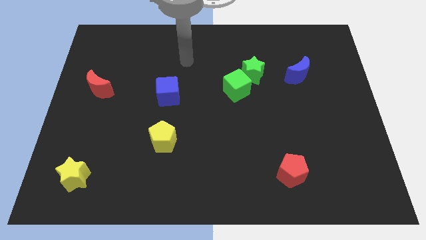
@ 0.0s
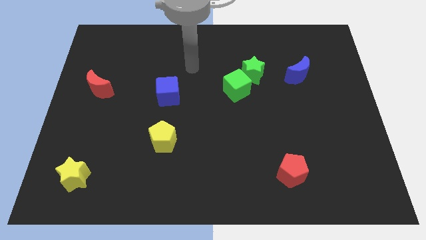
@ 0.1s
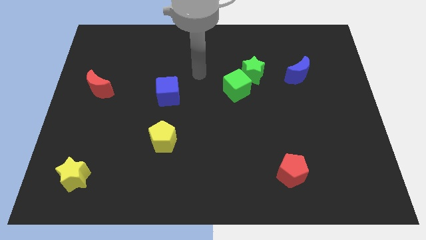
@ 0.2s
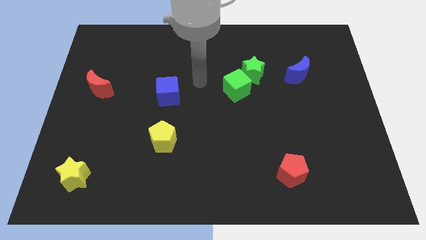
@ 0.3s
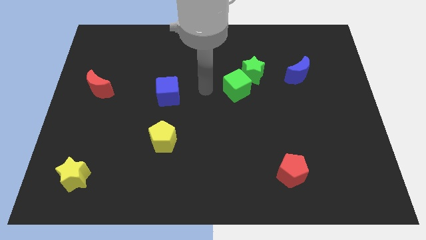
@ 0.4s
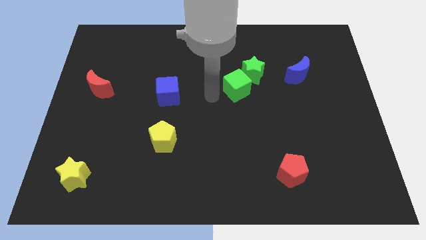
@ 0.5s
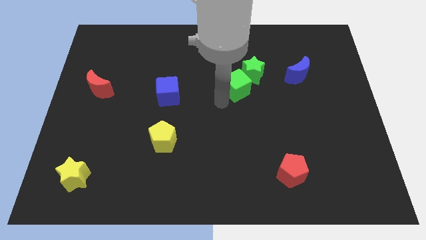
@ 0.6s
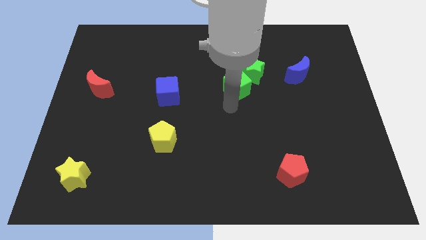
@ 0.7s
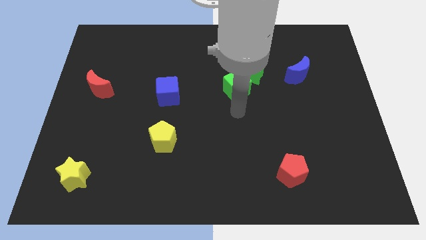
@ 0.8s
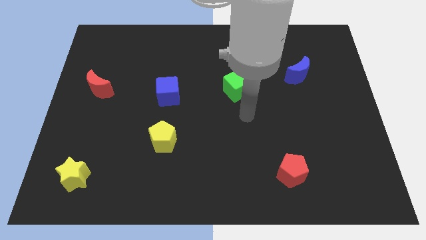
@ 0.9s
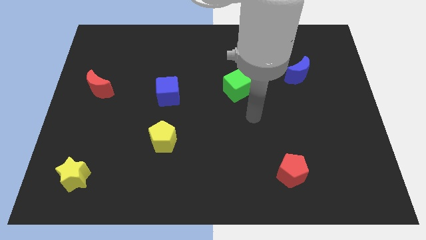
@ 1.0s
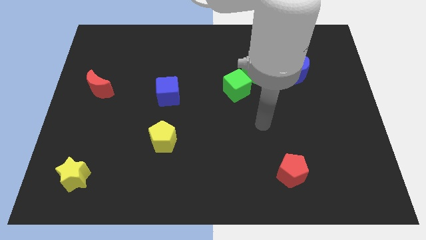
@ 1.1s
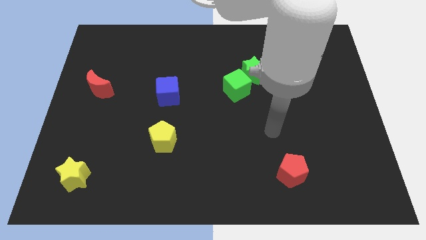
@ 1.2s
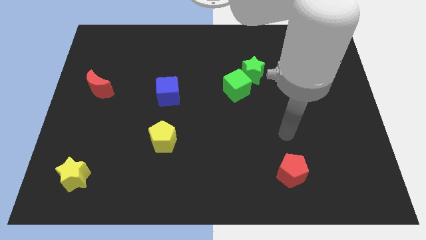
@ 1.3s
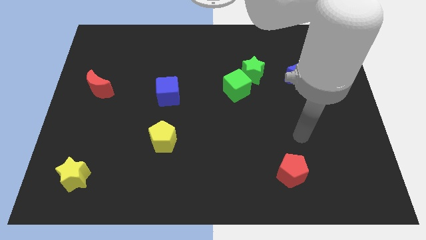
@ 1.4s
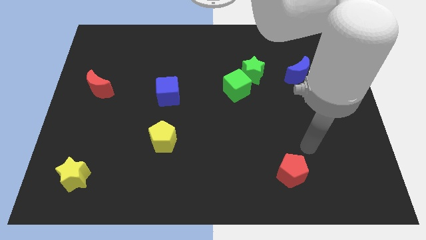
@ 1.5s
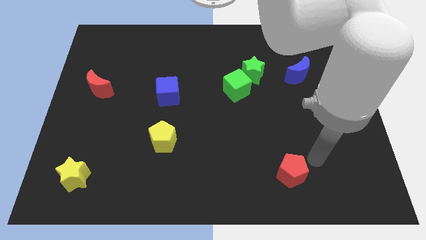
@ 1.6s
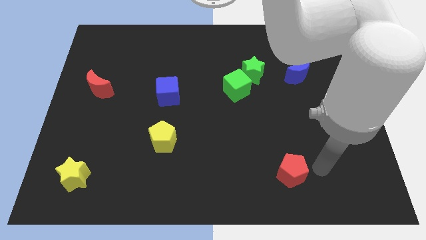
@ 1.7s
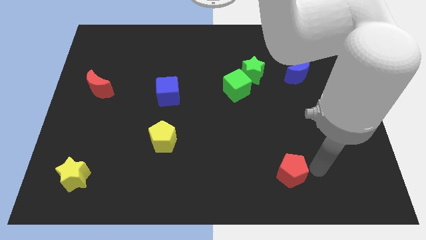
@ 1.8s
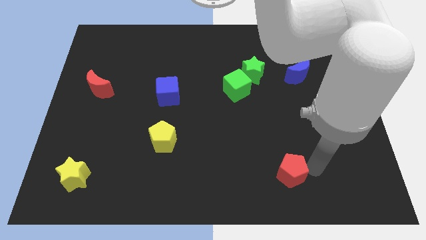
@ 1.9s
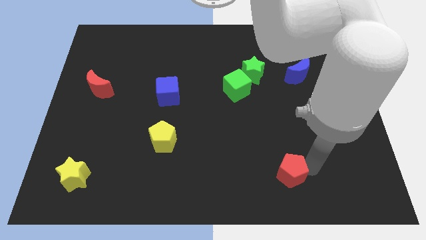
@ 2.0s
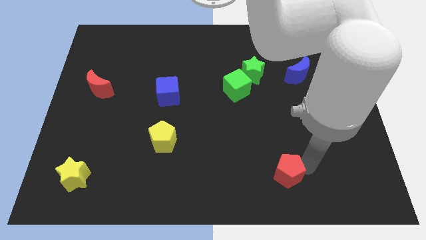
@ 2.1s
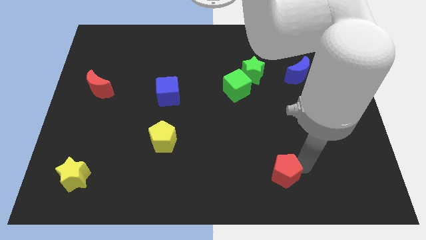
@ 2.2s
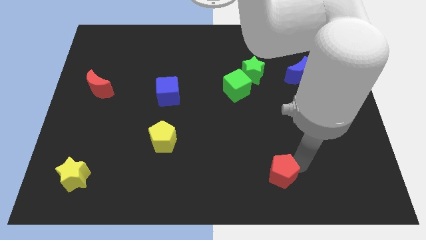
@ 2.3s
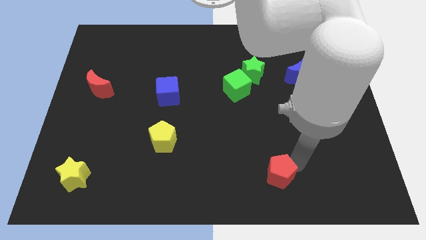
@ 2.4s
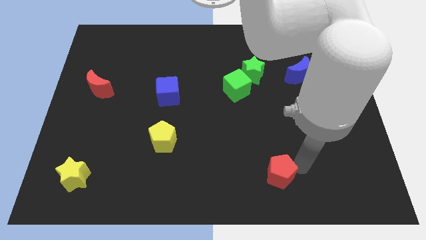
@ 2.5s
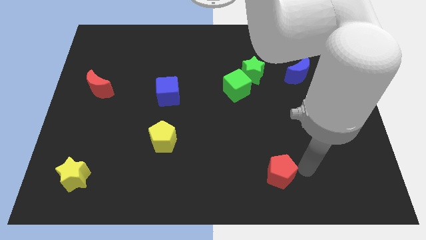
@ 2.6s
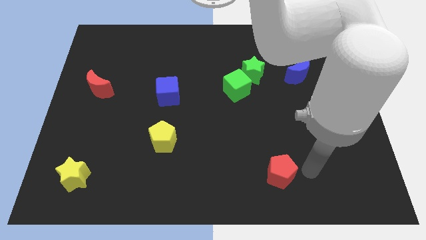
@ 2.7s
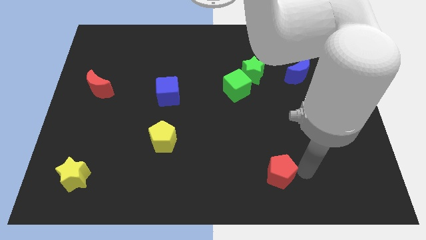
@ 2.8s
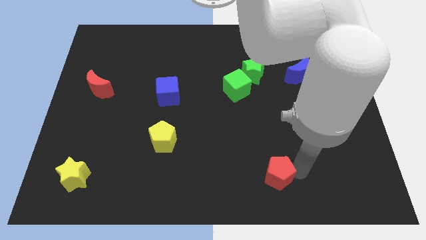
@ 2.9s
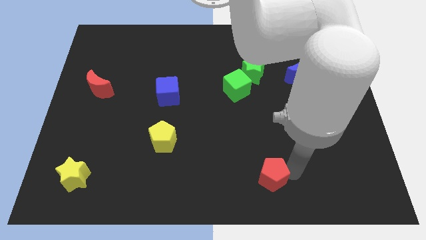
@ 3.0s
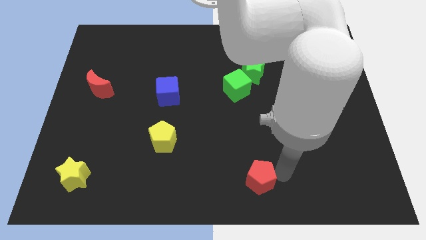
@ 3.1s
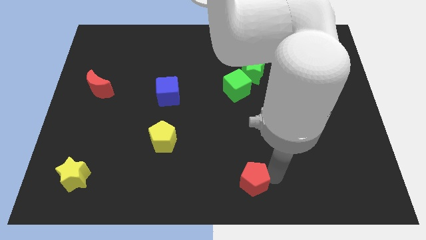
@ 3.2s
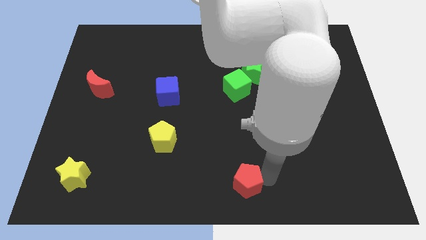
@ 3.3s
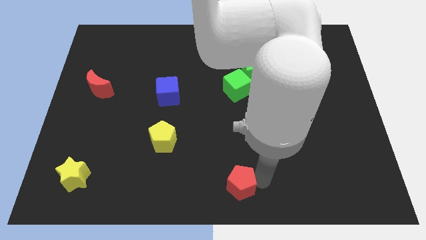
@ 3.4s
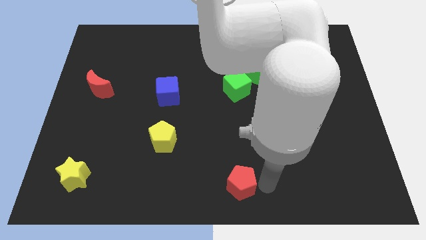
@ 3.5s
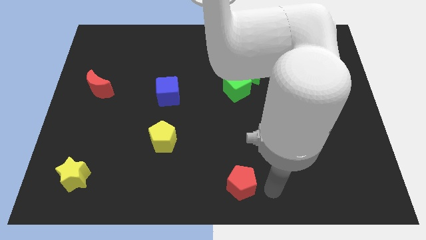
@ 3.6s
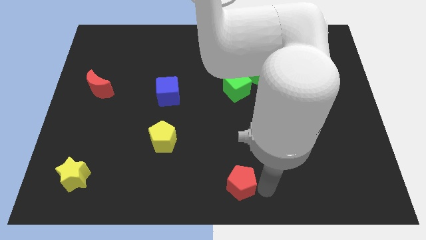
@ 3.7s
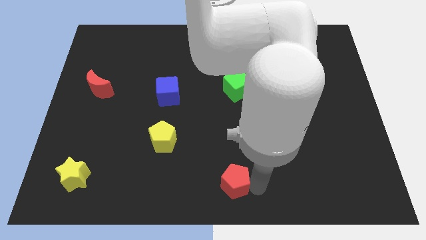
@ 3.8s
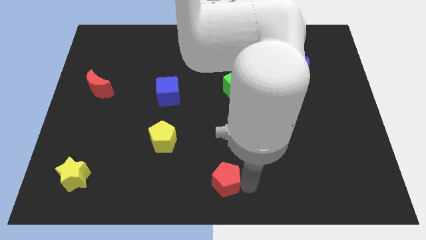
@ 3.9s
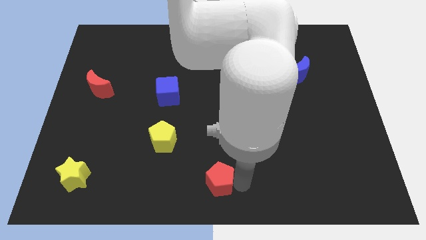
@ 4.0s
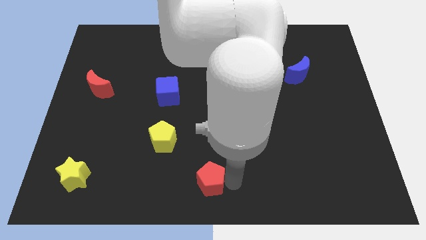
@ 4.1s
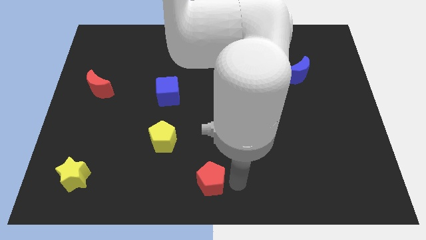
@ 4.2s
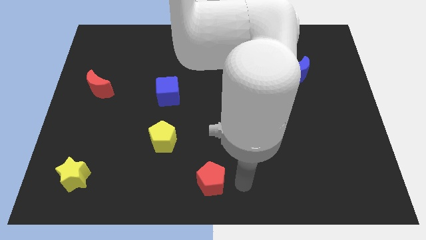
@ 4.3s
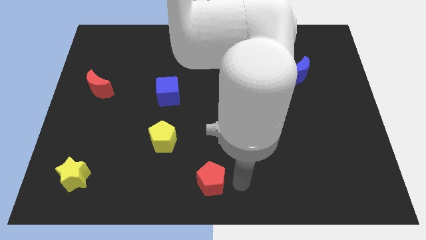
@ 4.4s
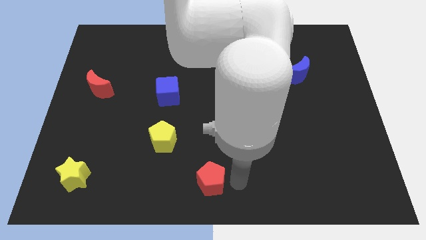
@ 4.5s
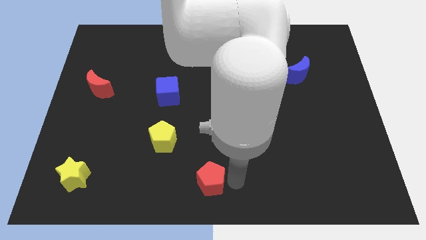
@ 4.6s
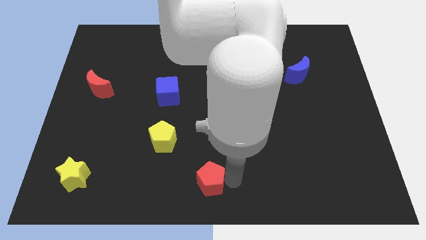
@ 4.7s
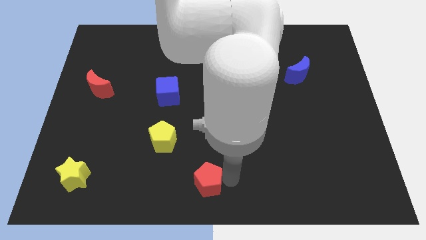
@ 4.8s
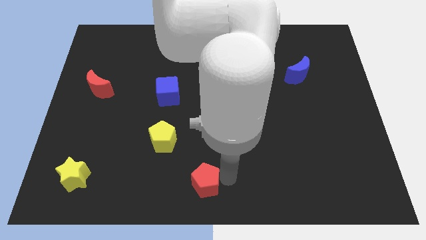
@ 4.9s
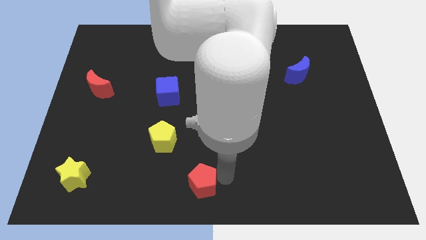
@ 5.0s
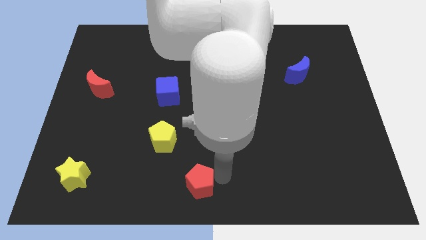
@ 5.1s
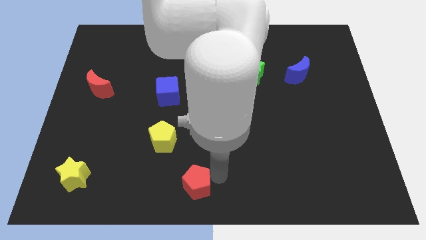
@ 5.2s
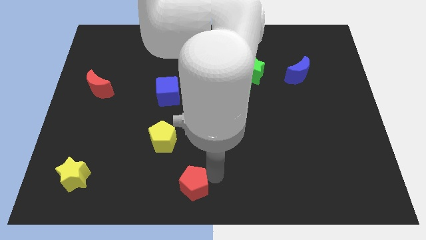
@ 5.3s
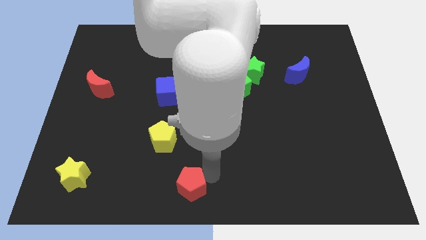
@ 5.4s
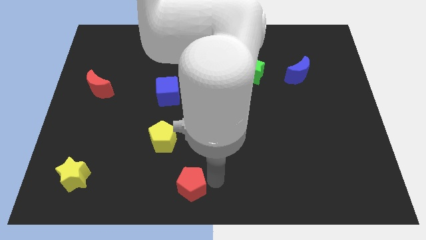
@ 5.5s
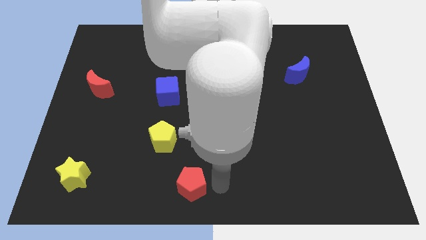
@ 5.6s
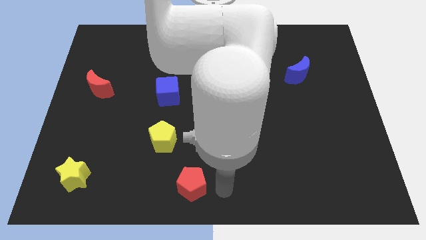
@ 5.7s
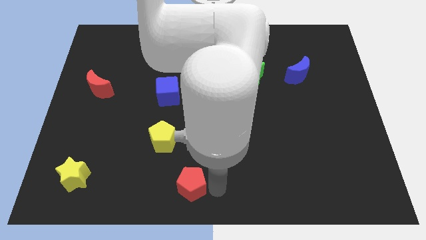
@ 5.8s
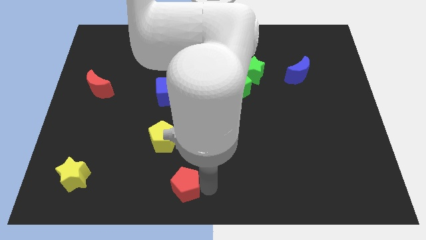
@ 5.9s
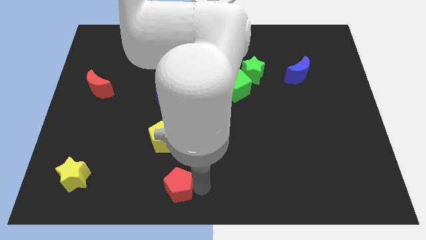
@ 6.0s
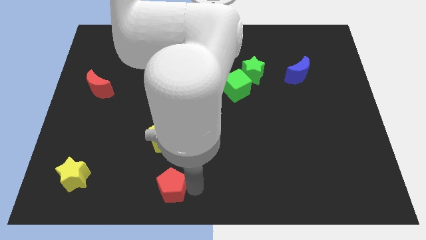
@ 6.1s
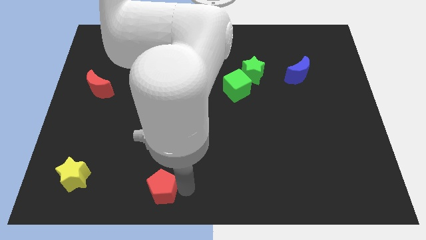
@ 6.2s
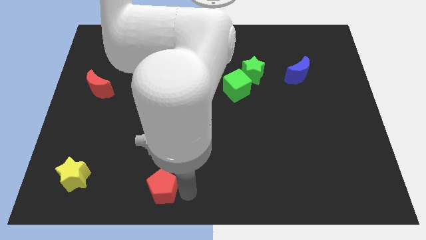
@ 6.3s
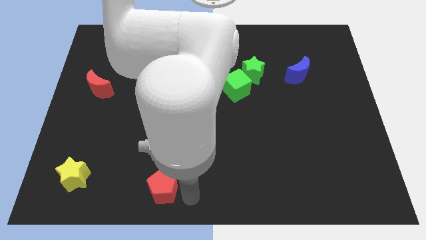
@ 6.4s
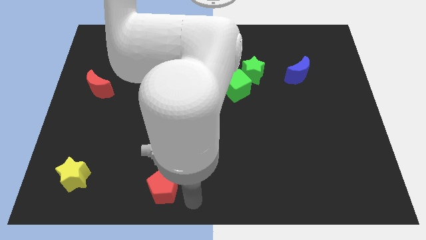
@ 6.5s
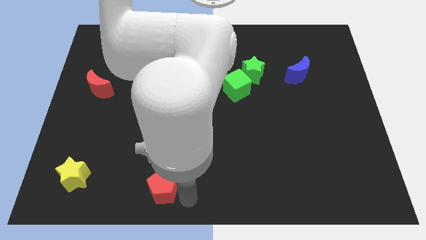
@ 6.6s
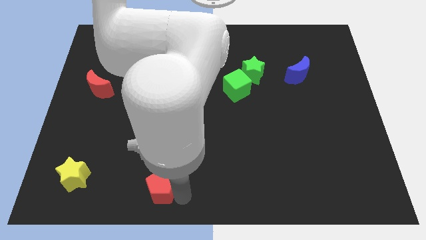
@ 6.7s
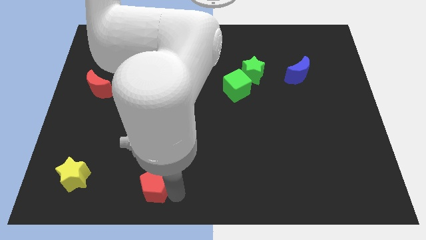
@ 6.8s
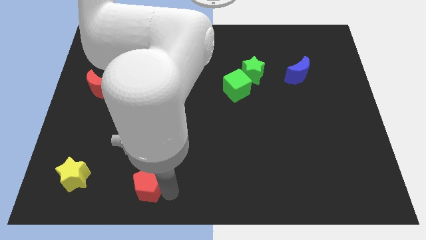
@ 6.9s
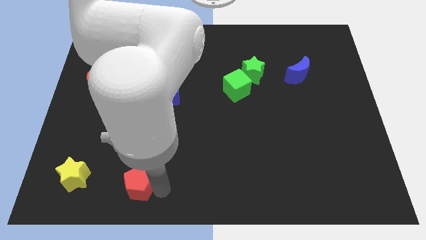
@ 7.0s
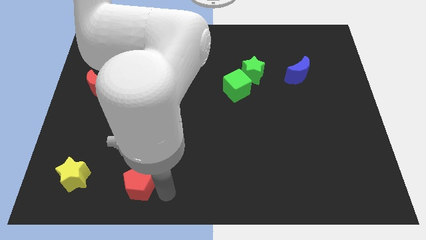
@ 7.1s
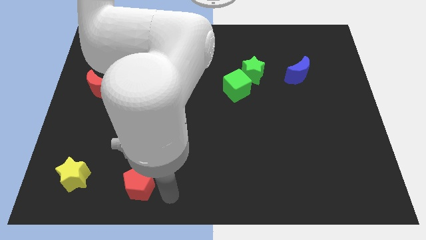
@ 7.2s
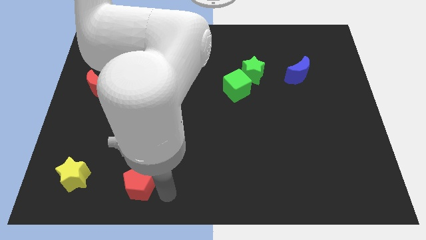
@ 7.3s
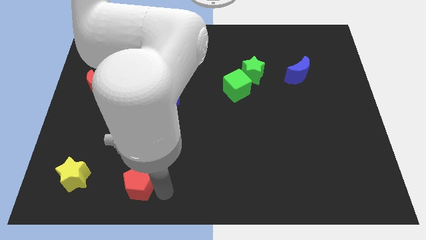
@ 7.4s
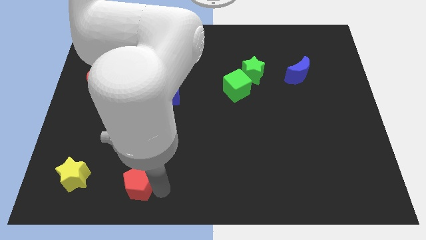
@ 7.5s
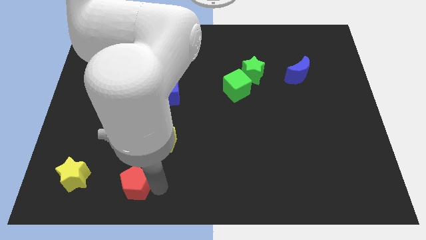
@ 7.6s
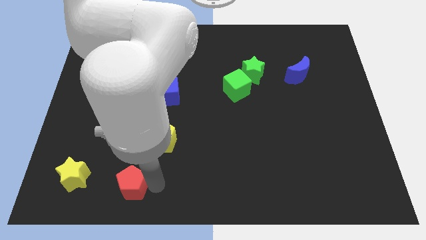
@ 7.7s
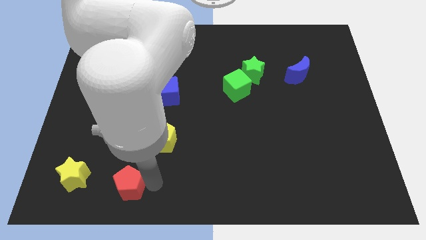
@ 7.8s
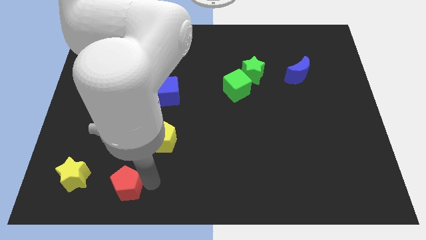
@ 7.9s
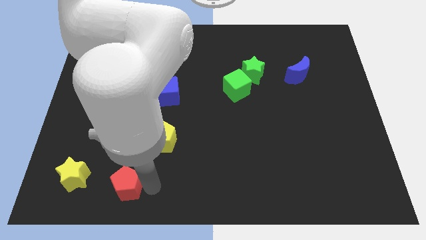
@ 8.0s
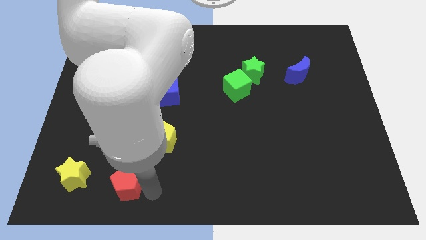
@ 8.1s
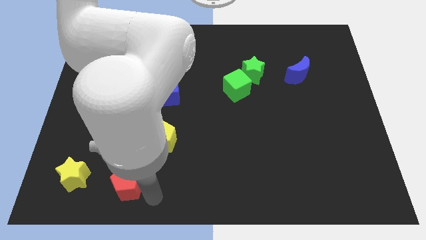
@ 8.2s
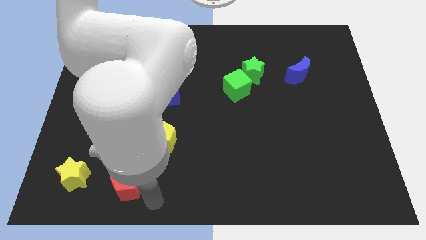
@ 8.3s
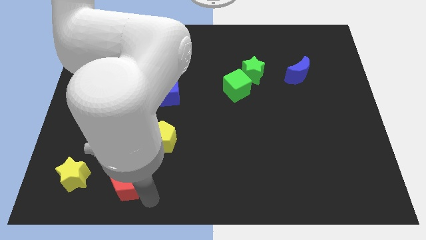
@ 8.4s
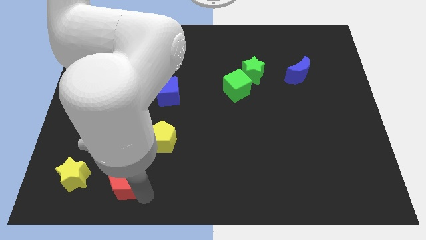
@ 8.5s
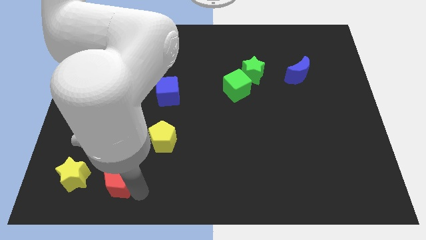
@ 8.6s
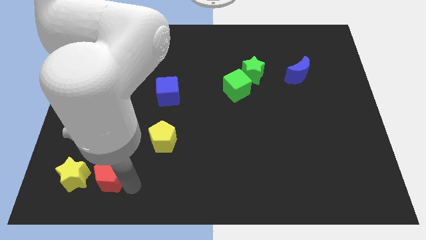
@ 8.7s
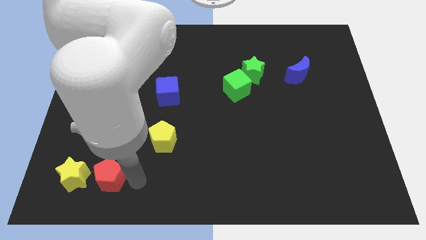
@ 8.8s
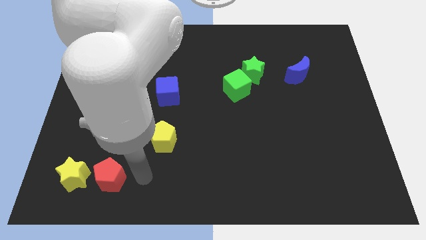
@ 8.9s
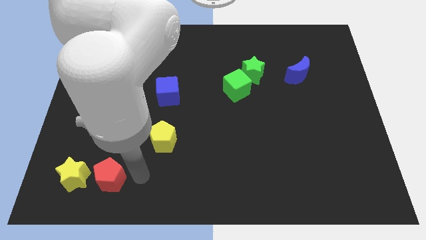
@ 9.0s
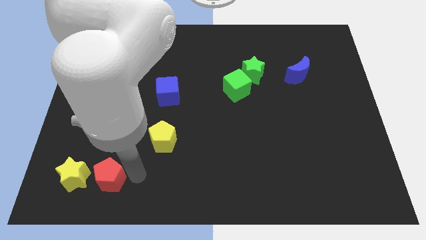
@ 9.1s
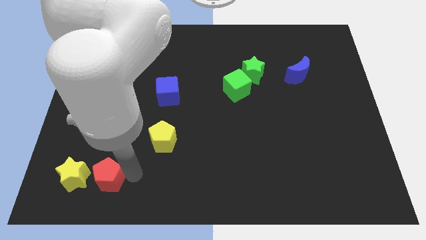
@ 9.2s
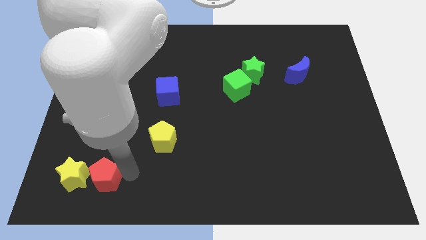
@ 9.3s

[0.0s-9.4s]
move the red pentagon close to the yellow star
